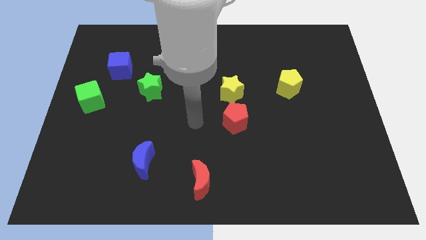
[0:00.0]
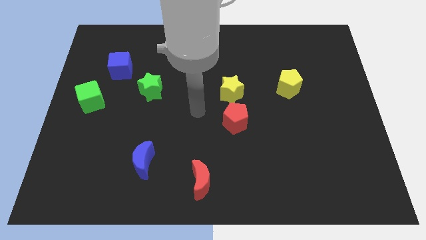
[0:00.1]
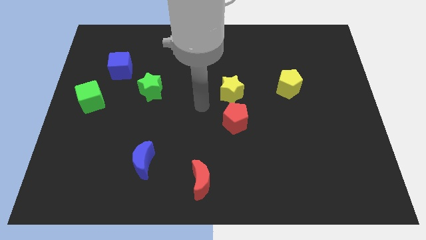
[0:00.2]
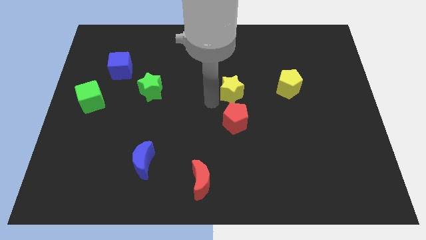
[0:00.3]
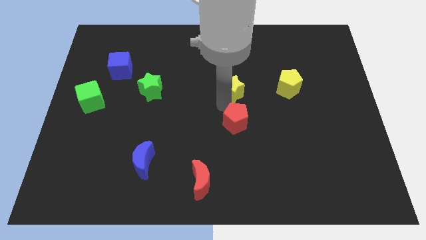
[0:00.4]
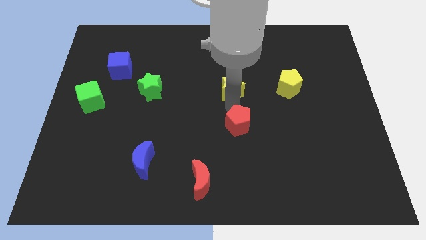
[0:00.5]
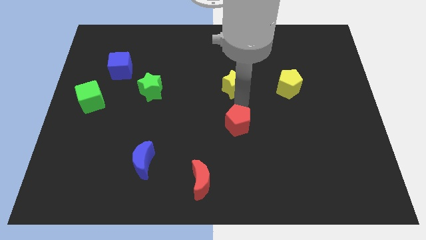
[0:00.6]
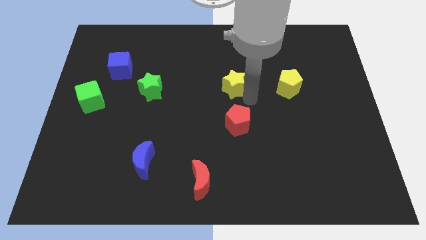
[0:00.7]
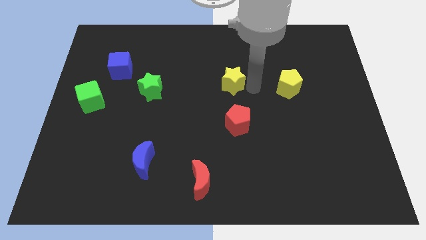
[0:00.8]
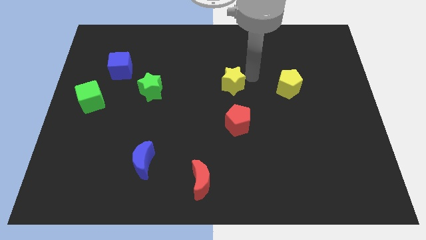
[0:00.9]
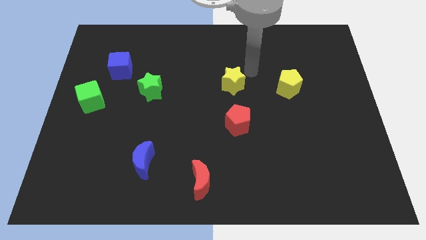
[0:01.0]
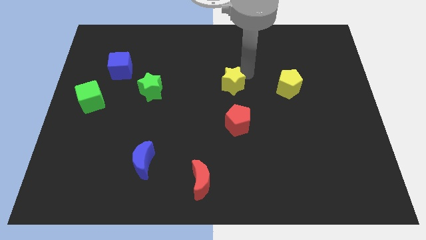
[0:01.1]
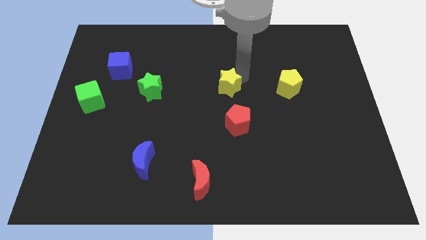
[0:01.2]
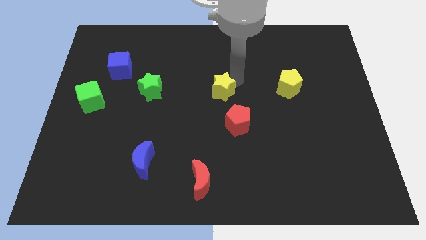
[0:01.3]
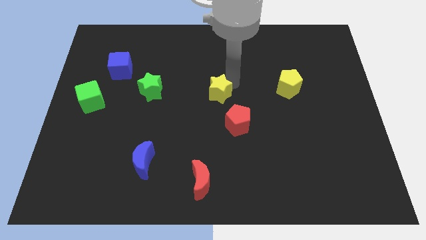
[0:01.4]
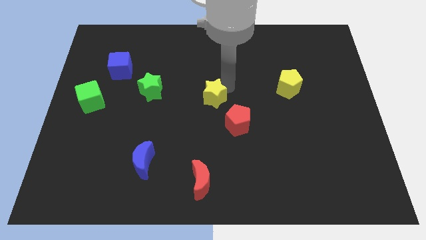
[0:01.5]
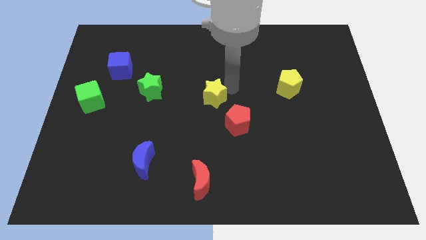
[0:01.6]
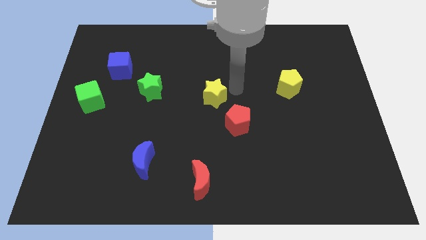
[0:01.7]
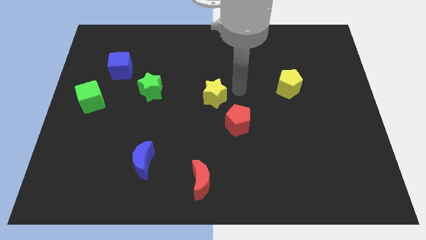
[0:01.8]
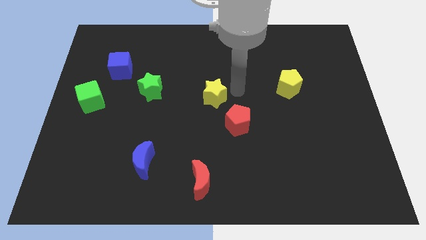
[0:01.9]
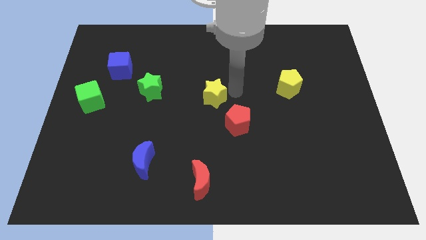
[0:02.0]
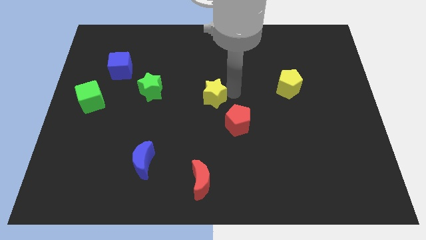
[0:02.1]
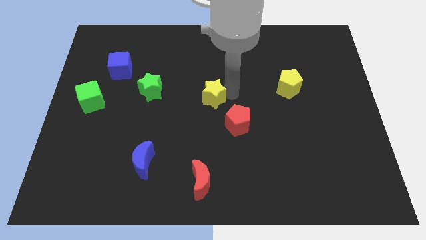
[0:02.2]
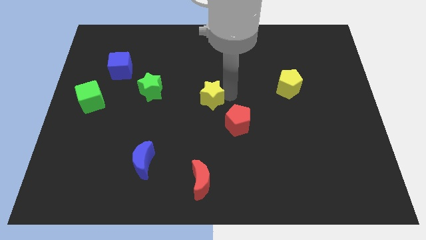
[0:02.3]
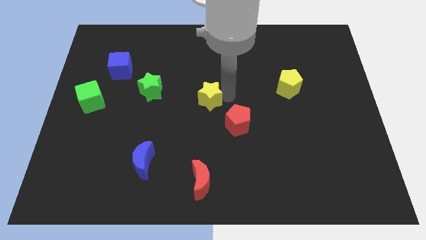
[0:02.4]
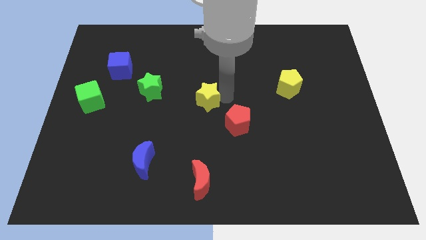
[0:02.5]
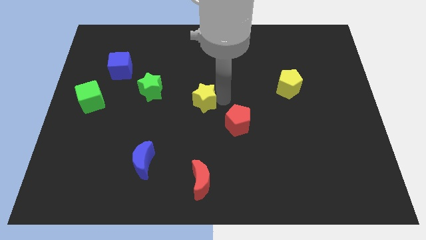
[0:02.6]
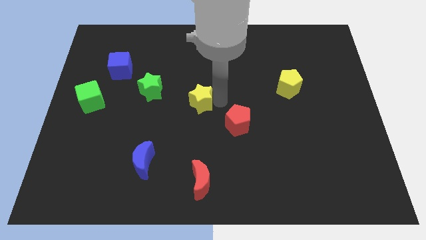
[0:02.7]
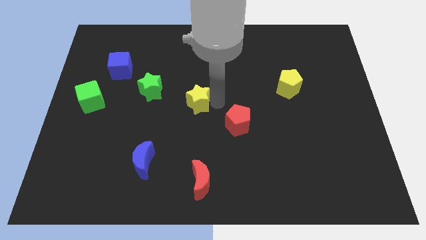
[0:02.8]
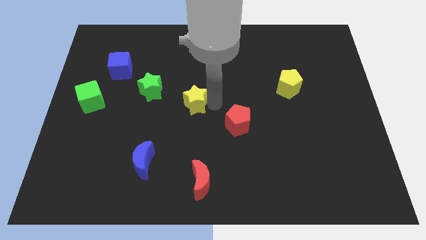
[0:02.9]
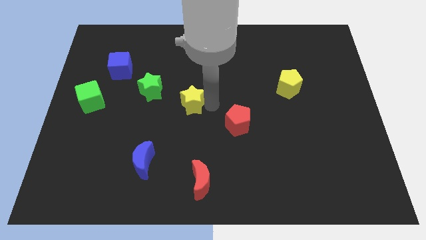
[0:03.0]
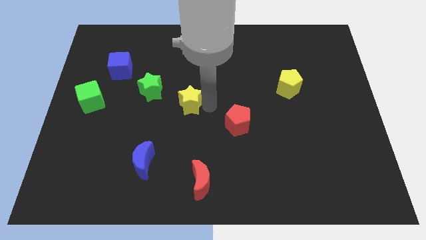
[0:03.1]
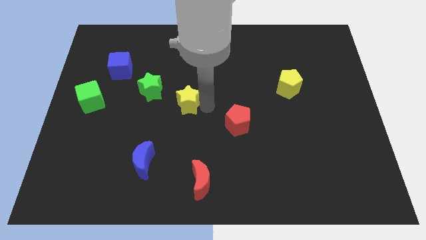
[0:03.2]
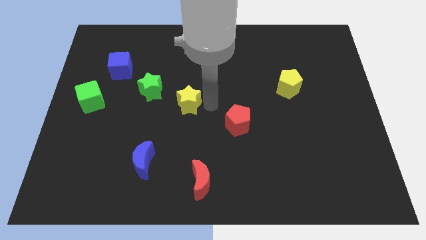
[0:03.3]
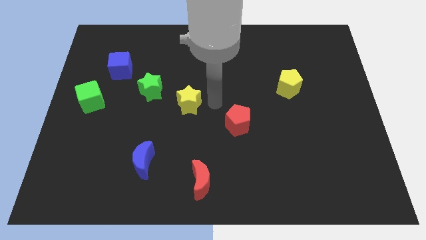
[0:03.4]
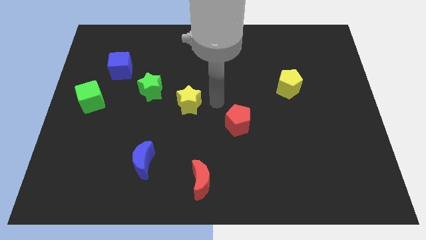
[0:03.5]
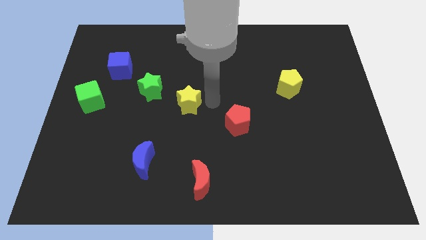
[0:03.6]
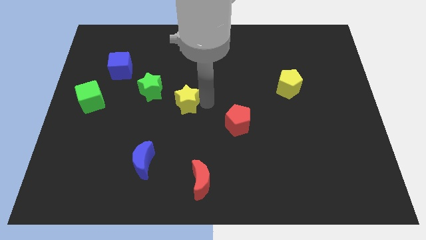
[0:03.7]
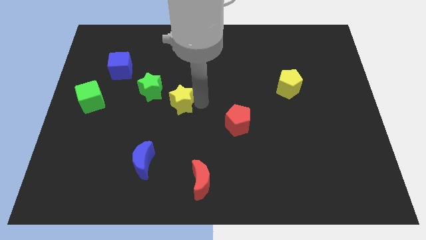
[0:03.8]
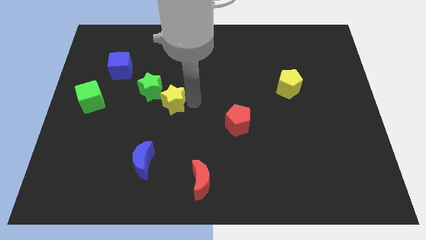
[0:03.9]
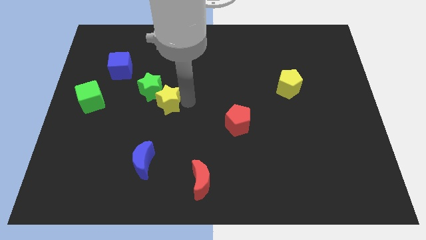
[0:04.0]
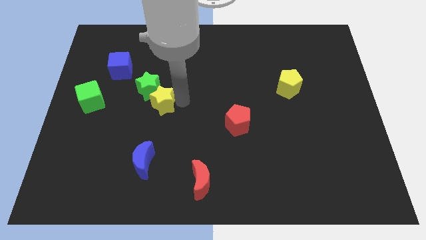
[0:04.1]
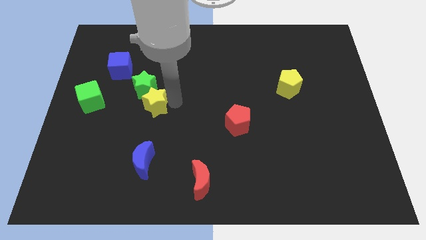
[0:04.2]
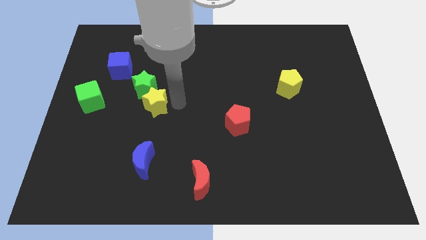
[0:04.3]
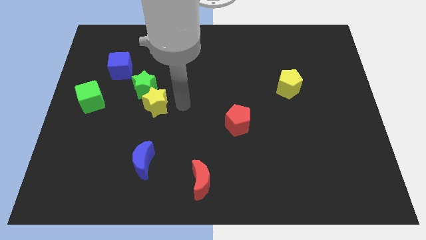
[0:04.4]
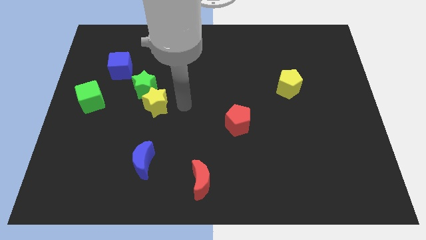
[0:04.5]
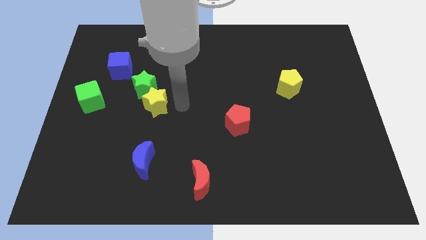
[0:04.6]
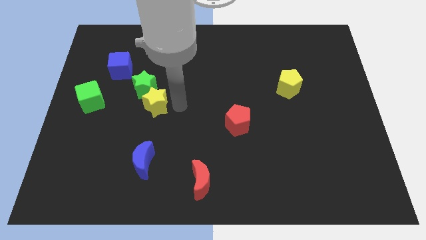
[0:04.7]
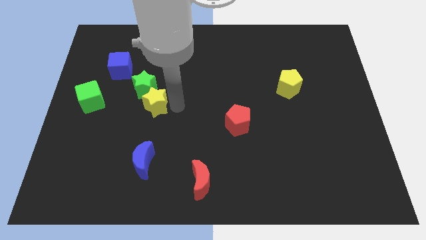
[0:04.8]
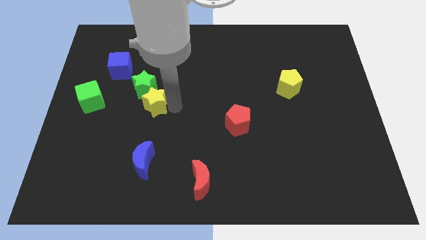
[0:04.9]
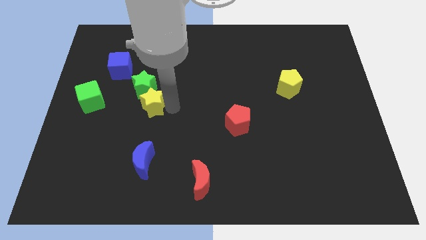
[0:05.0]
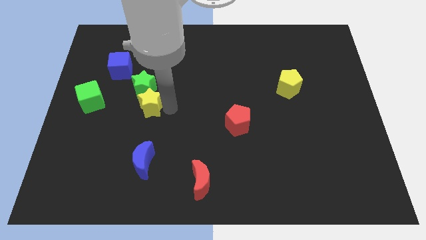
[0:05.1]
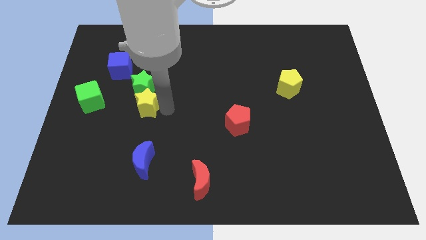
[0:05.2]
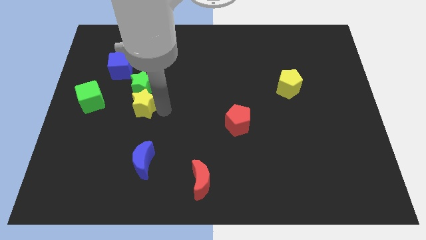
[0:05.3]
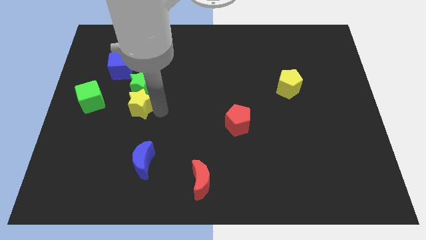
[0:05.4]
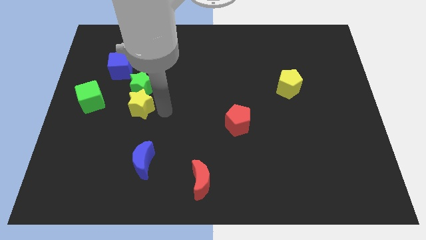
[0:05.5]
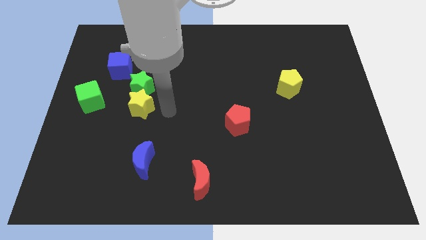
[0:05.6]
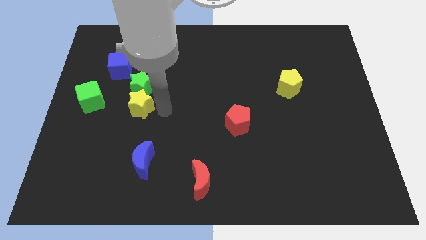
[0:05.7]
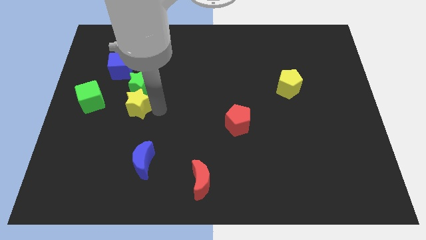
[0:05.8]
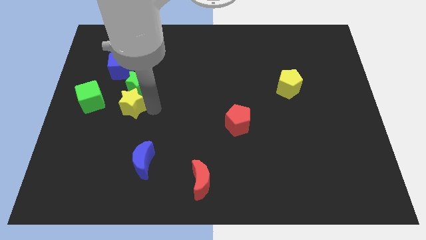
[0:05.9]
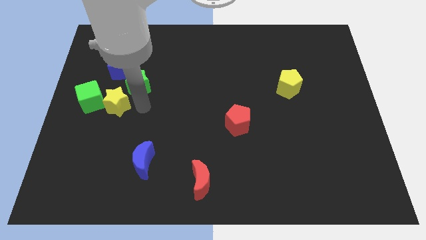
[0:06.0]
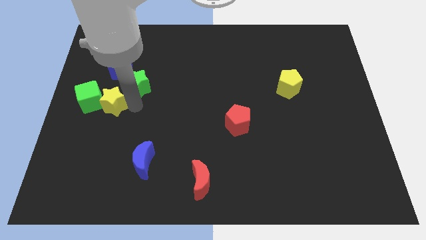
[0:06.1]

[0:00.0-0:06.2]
push the yellow star towards the green cube

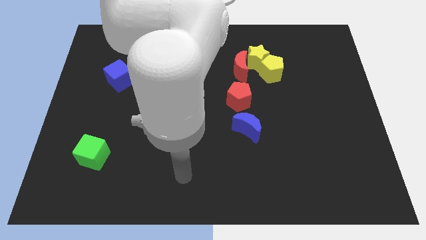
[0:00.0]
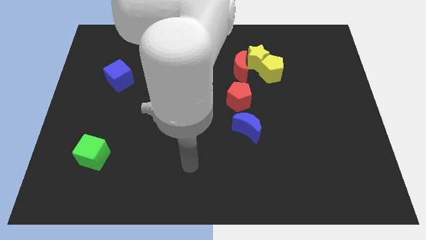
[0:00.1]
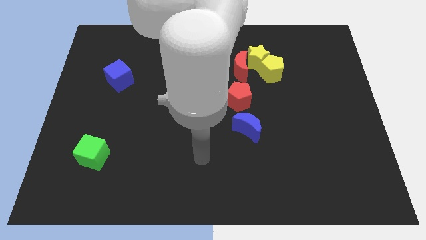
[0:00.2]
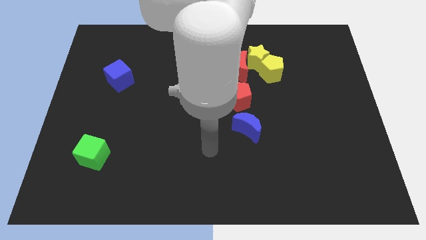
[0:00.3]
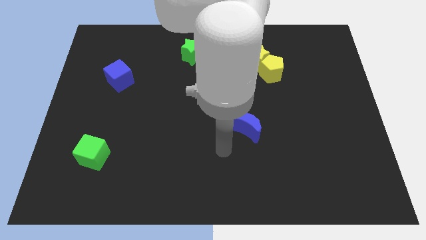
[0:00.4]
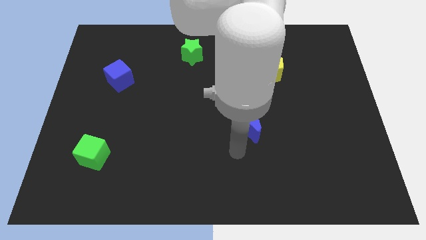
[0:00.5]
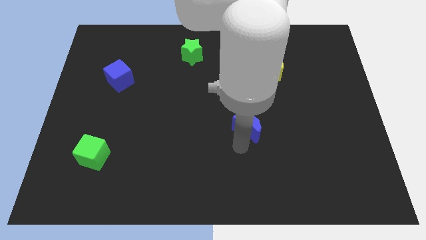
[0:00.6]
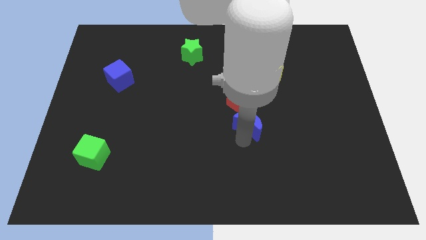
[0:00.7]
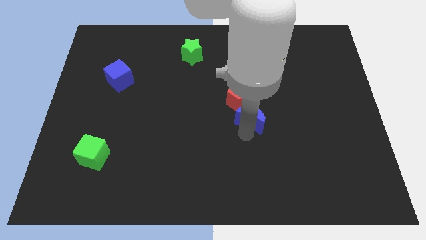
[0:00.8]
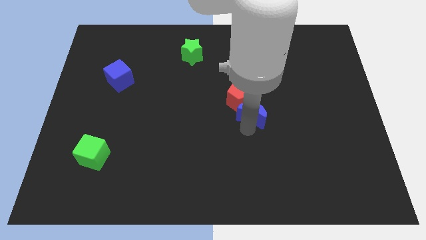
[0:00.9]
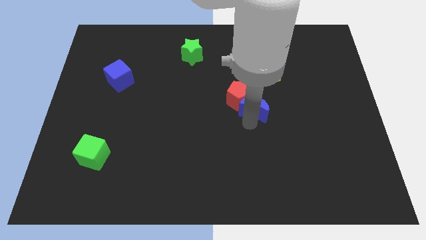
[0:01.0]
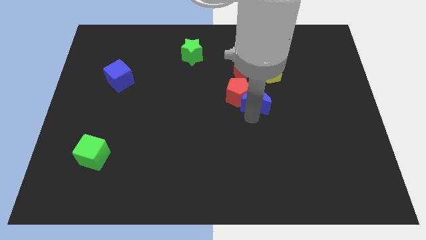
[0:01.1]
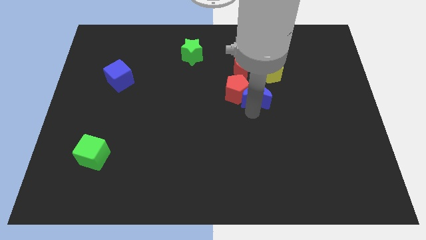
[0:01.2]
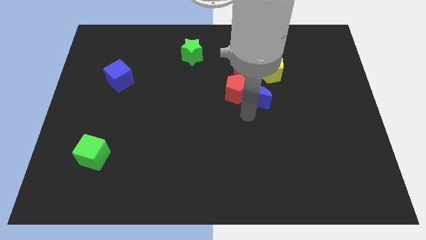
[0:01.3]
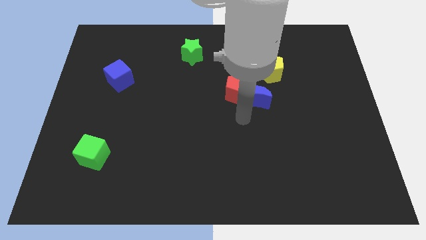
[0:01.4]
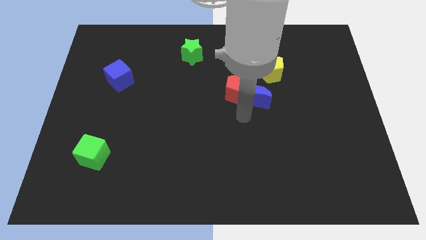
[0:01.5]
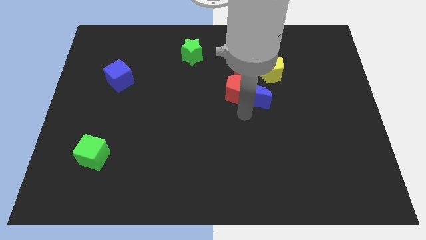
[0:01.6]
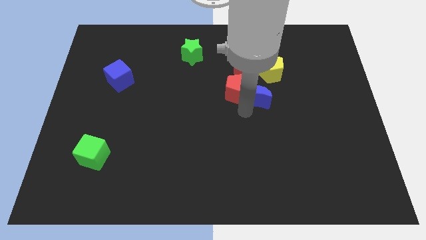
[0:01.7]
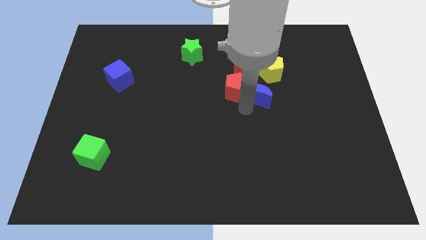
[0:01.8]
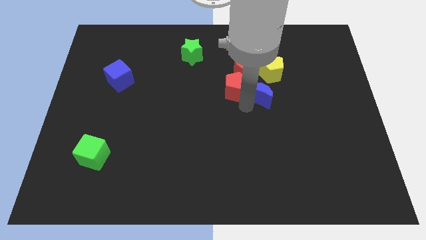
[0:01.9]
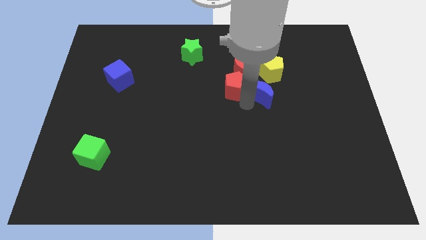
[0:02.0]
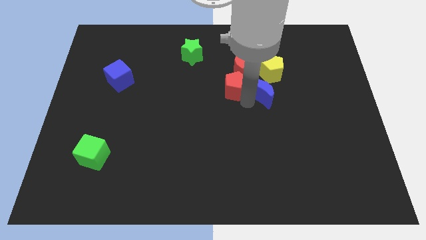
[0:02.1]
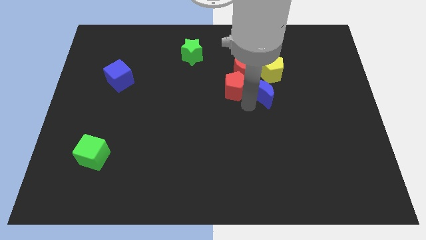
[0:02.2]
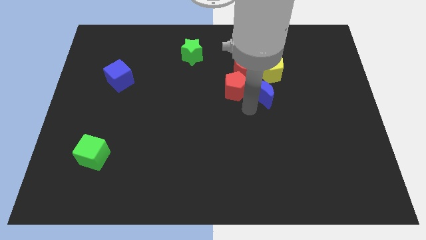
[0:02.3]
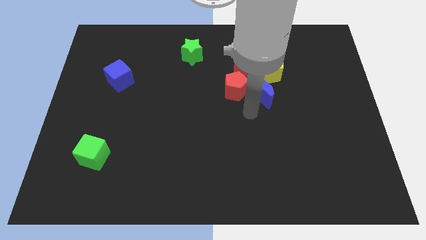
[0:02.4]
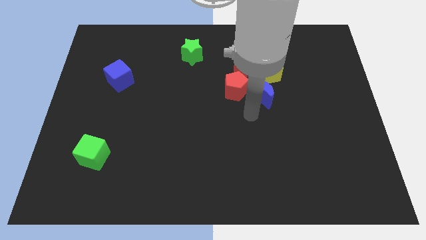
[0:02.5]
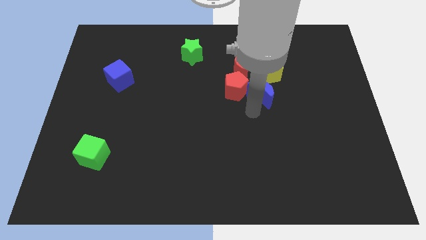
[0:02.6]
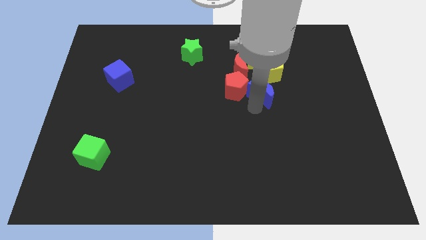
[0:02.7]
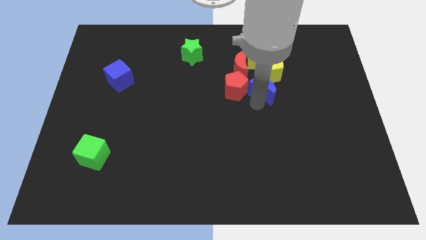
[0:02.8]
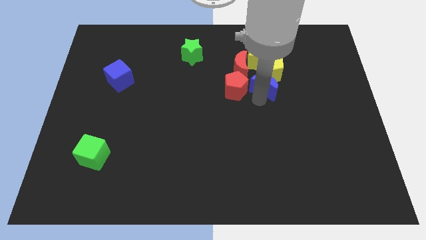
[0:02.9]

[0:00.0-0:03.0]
slide the blue moon towards the yellow pentagon
